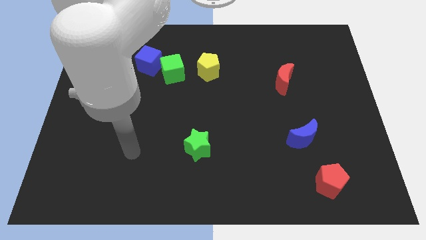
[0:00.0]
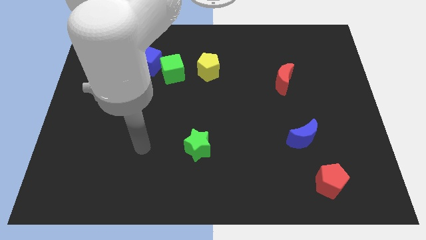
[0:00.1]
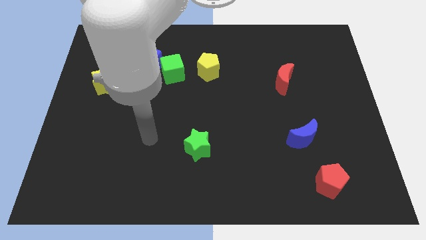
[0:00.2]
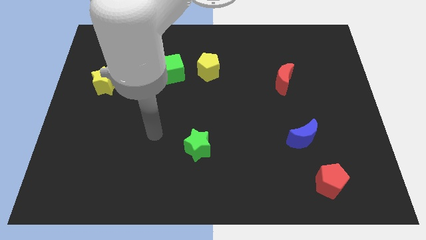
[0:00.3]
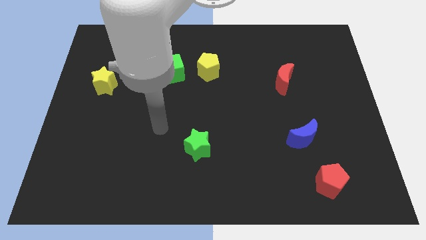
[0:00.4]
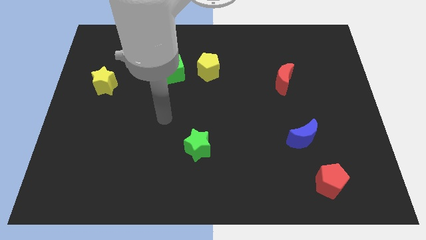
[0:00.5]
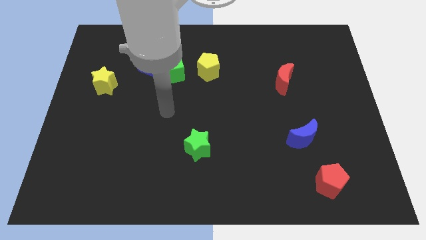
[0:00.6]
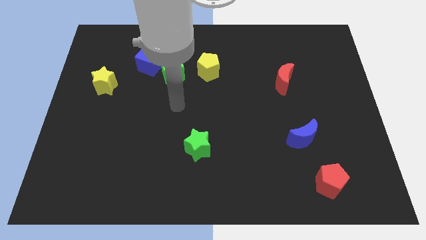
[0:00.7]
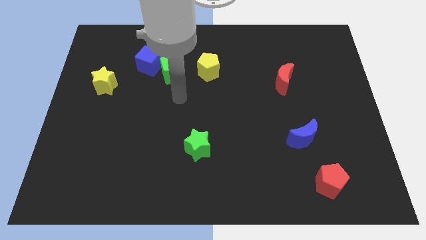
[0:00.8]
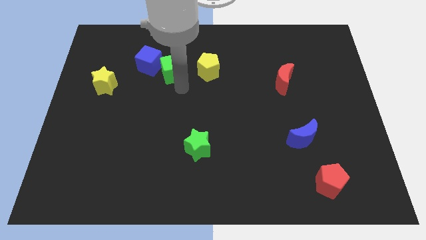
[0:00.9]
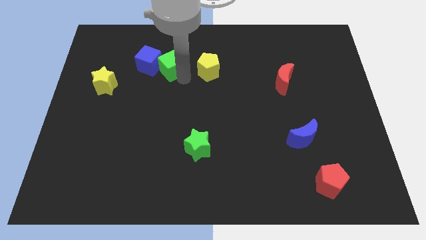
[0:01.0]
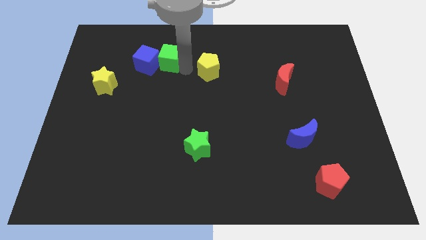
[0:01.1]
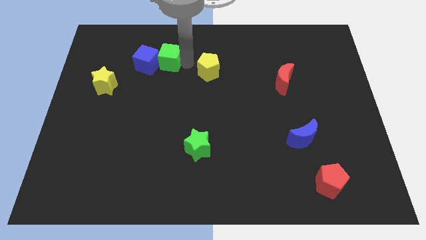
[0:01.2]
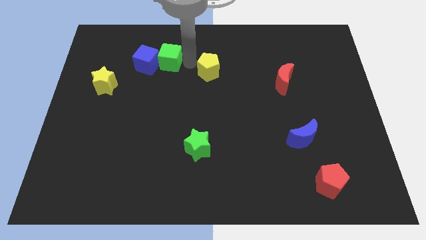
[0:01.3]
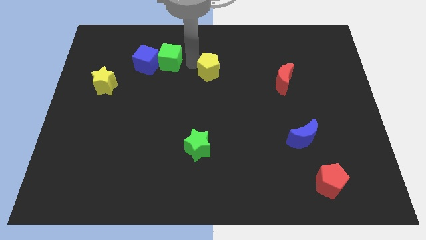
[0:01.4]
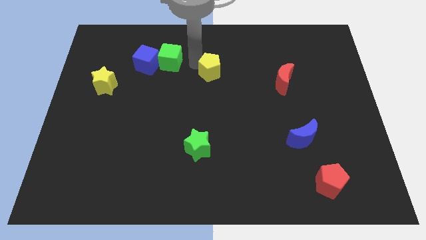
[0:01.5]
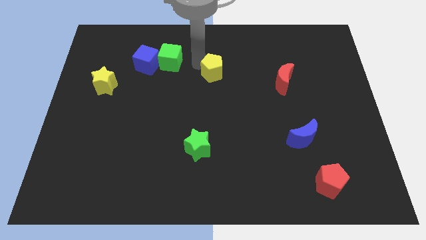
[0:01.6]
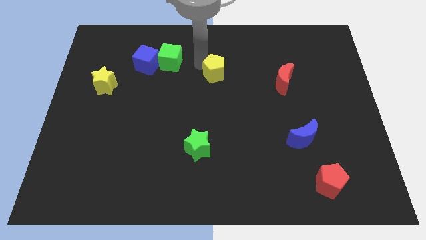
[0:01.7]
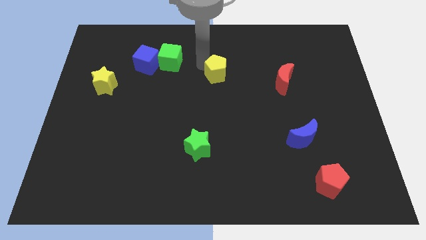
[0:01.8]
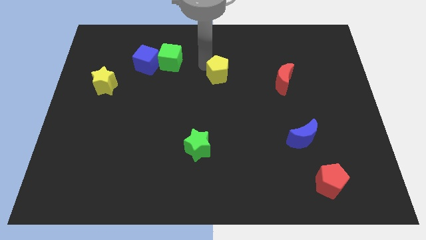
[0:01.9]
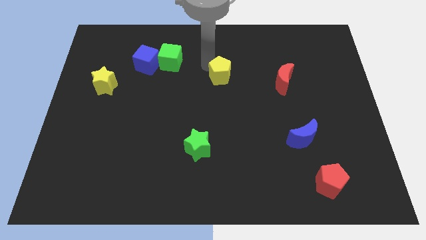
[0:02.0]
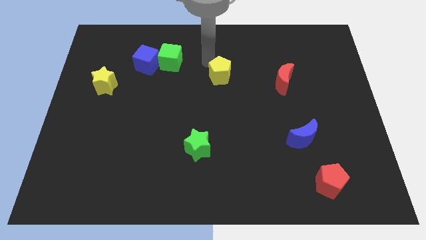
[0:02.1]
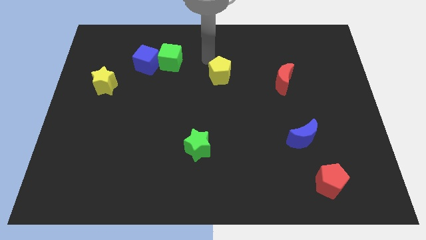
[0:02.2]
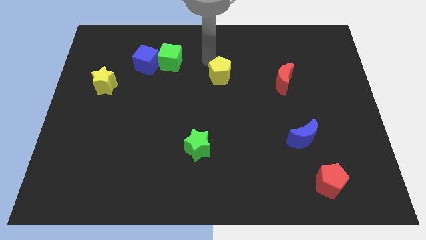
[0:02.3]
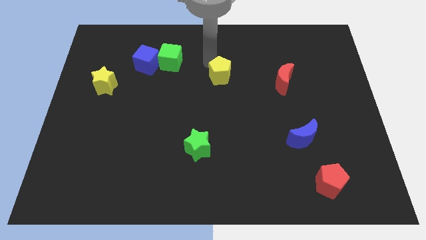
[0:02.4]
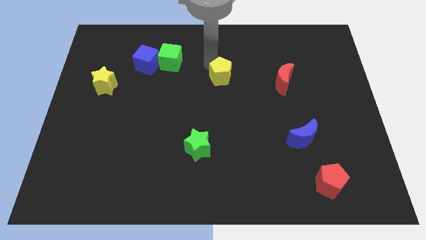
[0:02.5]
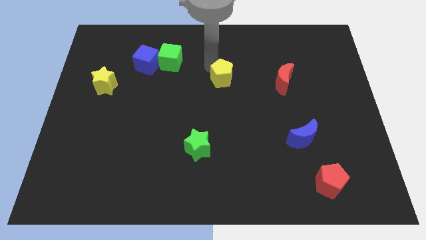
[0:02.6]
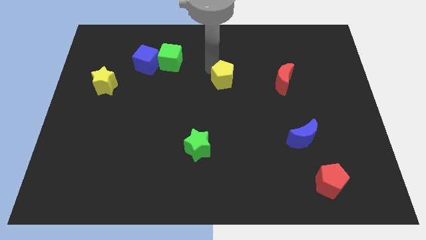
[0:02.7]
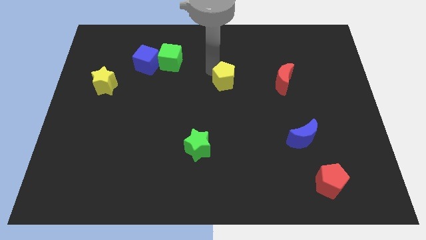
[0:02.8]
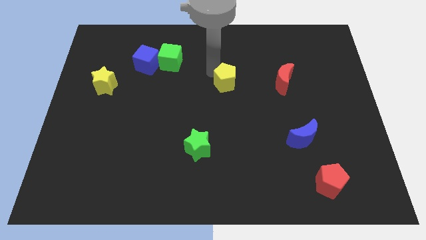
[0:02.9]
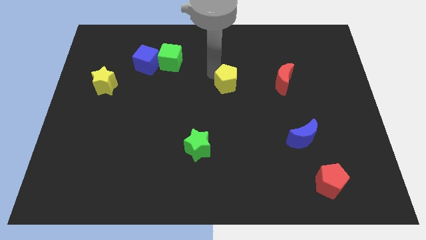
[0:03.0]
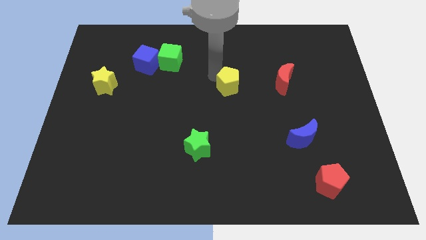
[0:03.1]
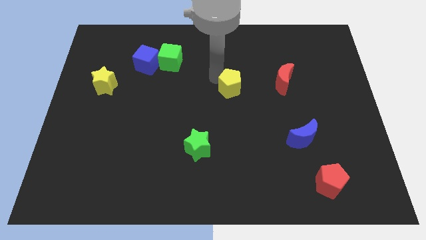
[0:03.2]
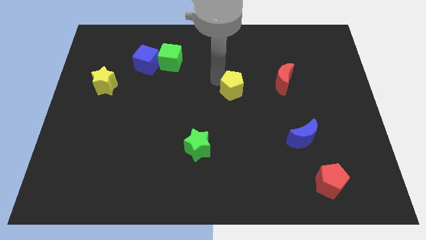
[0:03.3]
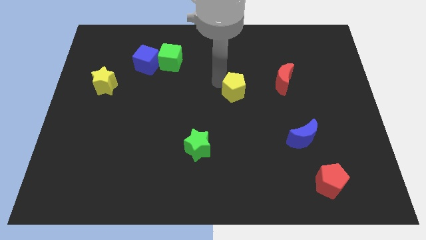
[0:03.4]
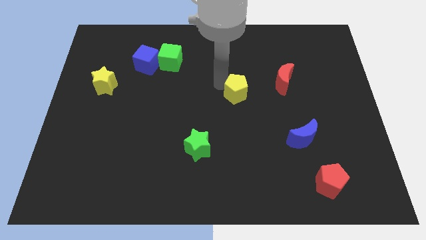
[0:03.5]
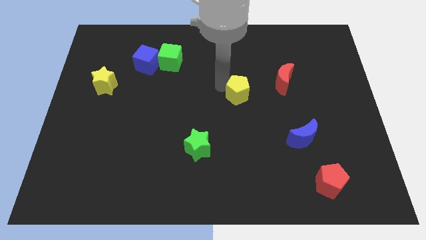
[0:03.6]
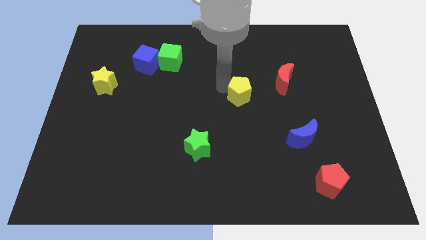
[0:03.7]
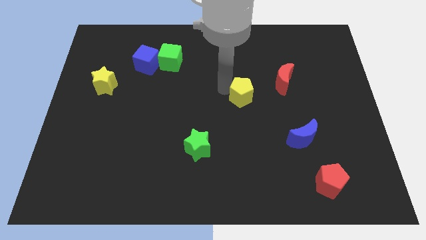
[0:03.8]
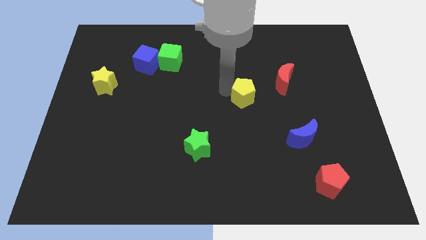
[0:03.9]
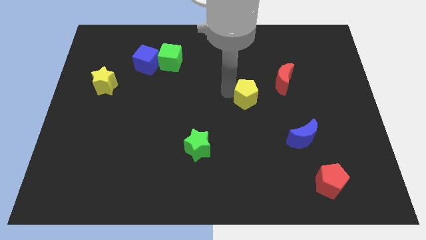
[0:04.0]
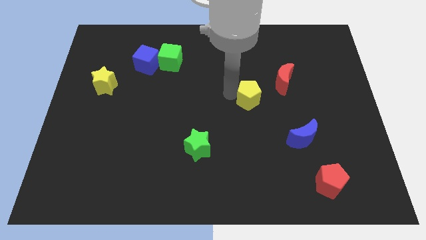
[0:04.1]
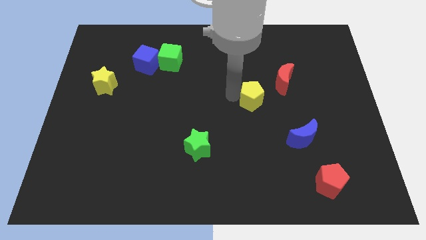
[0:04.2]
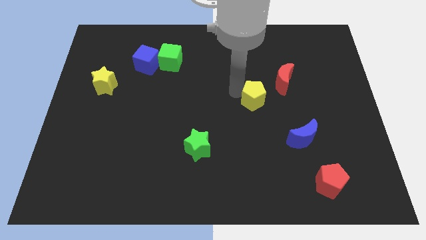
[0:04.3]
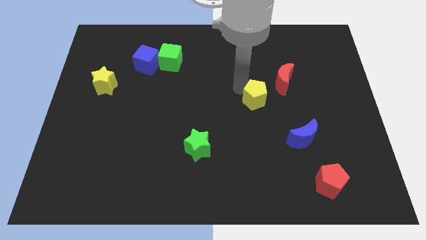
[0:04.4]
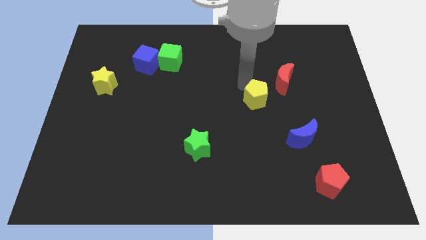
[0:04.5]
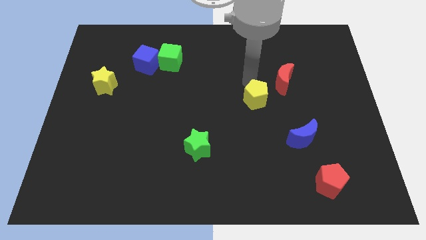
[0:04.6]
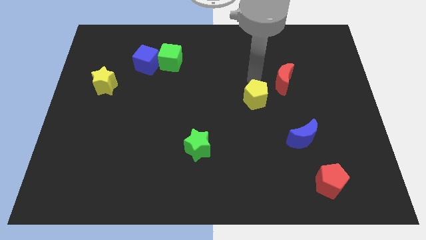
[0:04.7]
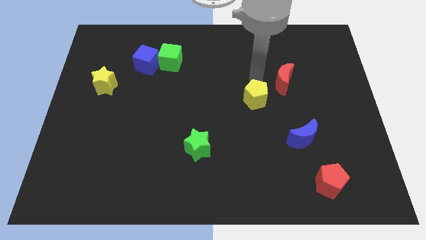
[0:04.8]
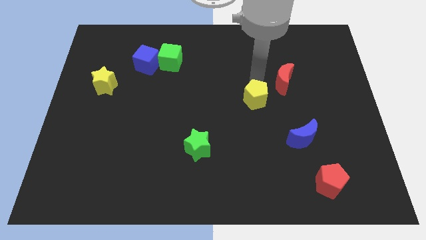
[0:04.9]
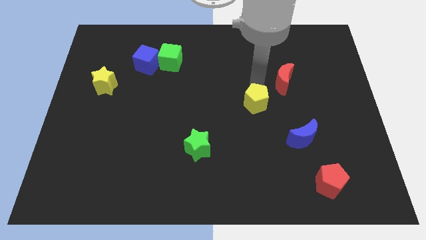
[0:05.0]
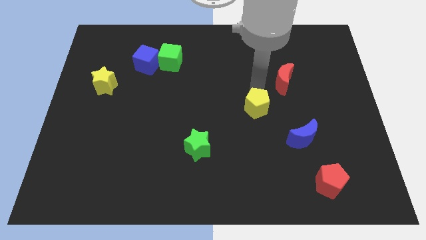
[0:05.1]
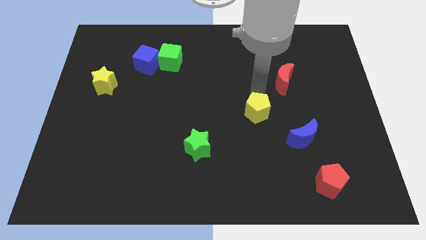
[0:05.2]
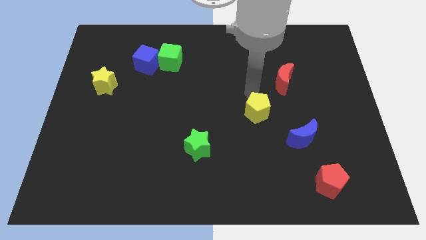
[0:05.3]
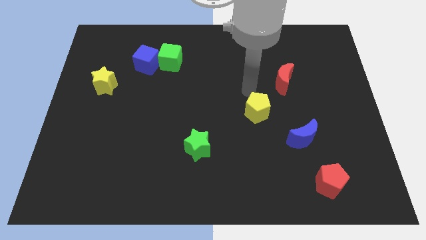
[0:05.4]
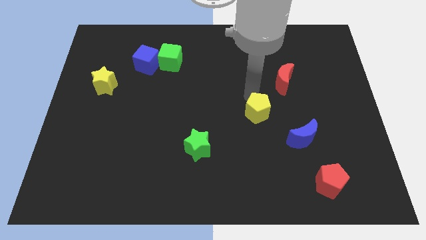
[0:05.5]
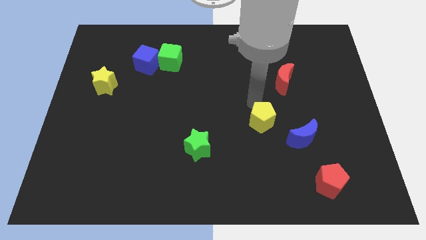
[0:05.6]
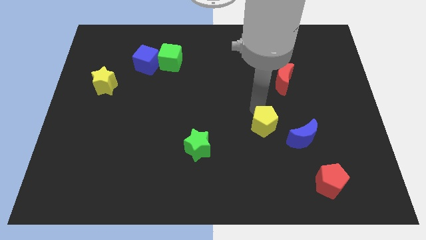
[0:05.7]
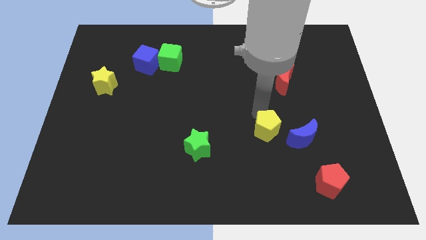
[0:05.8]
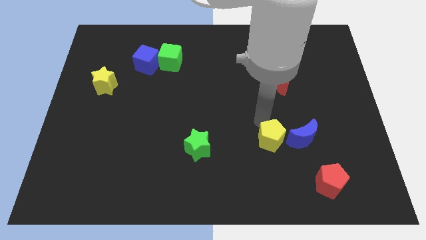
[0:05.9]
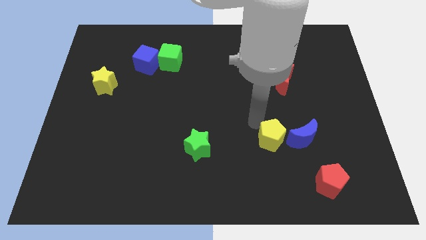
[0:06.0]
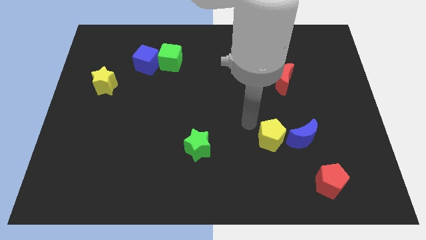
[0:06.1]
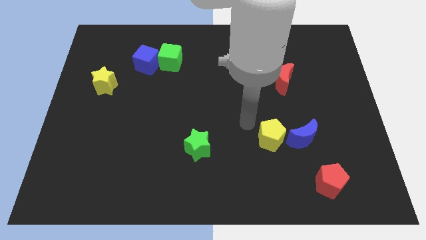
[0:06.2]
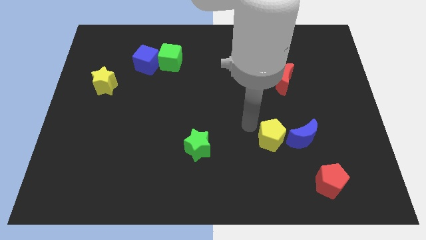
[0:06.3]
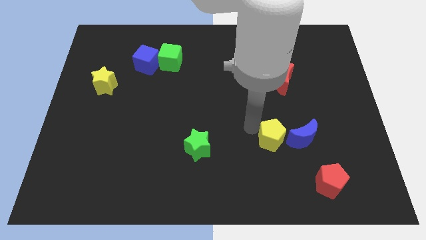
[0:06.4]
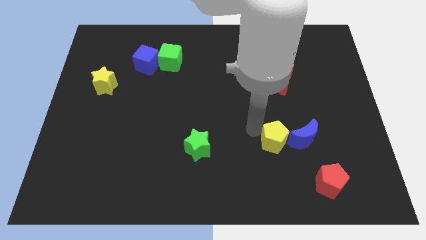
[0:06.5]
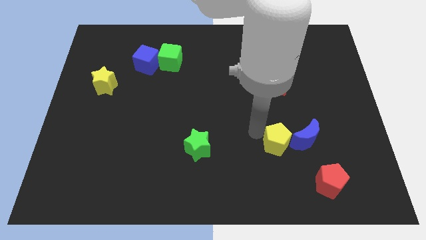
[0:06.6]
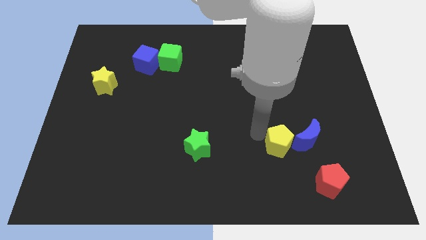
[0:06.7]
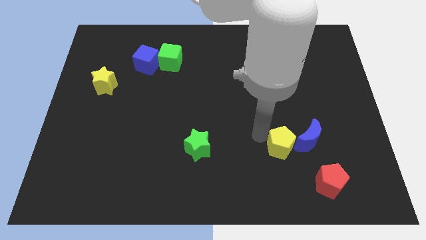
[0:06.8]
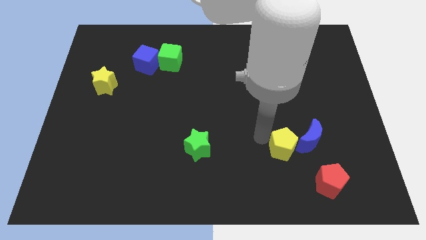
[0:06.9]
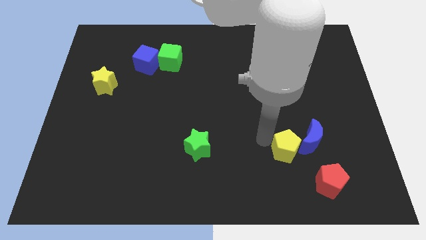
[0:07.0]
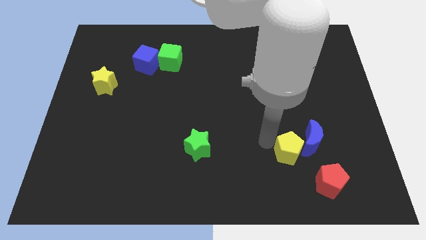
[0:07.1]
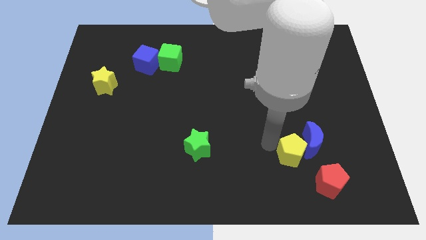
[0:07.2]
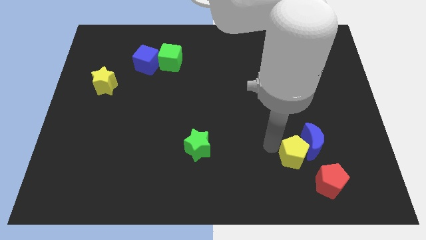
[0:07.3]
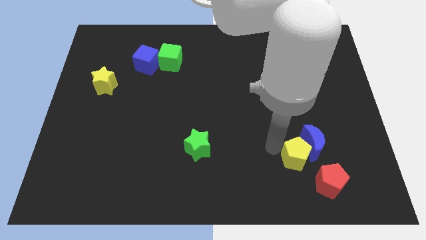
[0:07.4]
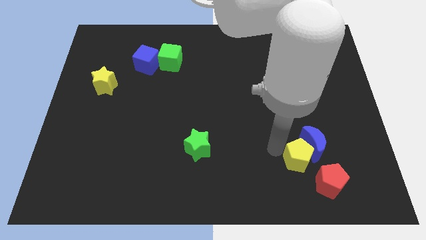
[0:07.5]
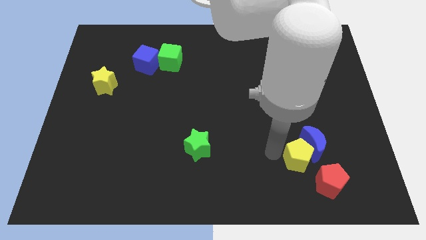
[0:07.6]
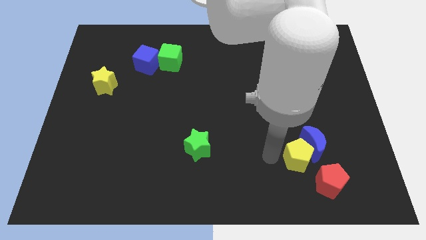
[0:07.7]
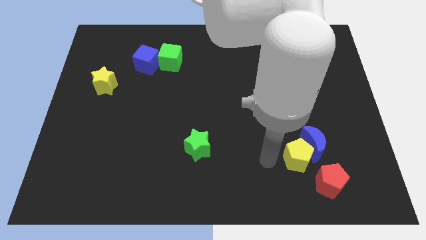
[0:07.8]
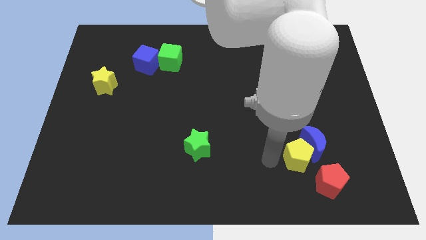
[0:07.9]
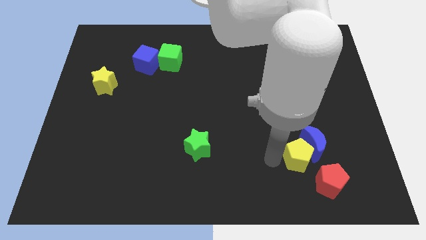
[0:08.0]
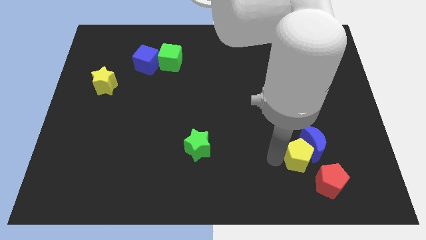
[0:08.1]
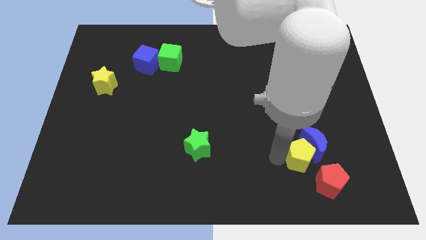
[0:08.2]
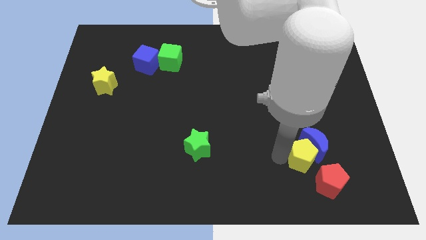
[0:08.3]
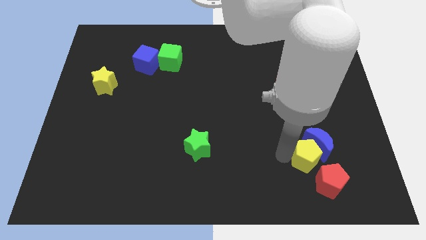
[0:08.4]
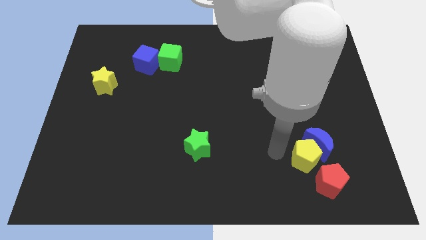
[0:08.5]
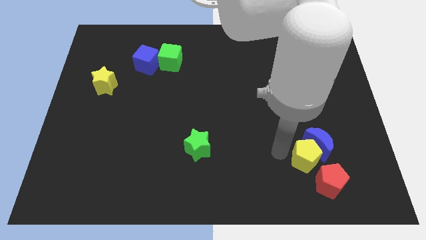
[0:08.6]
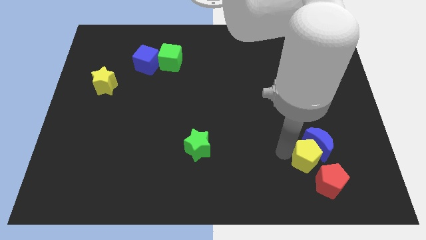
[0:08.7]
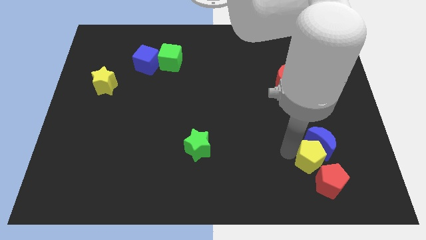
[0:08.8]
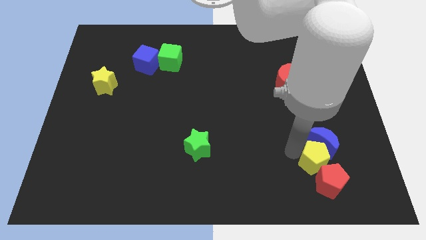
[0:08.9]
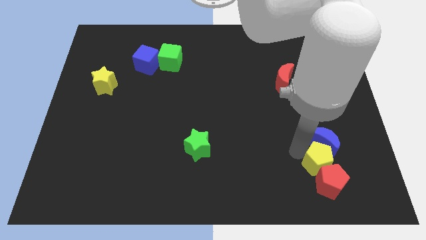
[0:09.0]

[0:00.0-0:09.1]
put the yellow pentagon to the bottom right side of the blue moon
